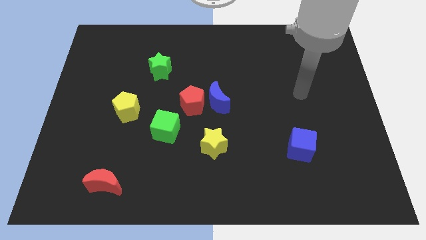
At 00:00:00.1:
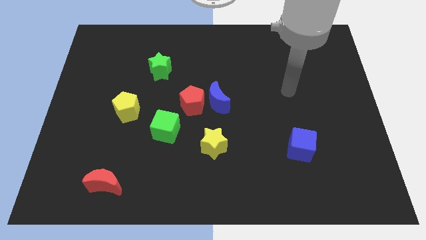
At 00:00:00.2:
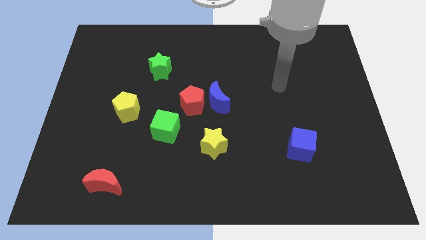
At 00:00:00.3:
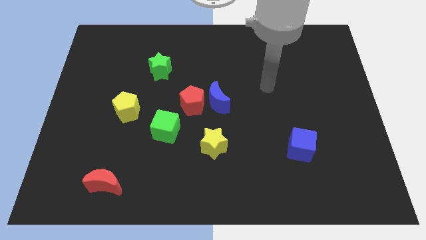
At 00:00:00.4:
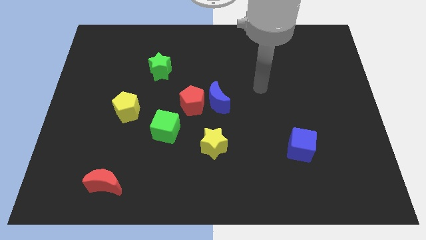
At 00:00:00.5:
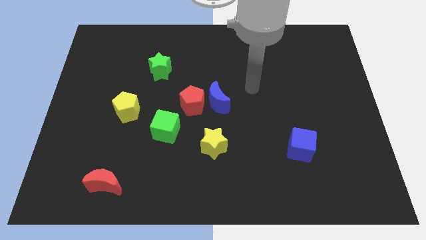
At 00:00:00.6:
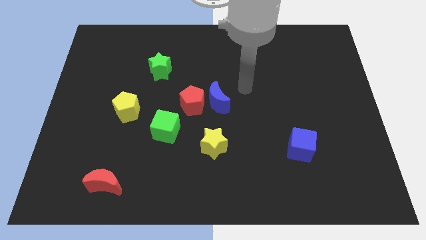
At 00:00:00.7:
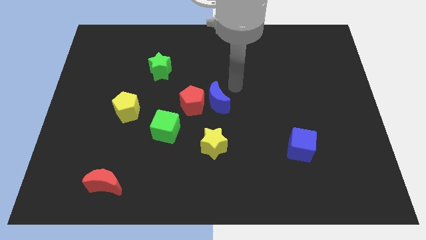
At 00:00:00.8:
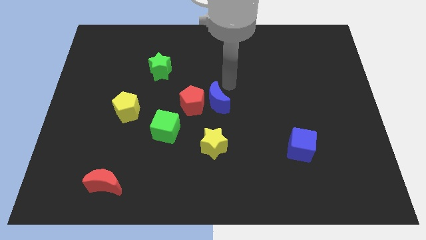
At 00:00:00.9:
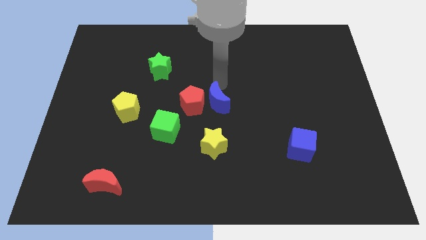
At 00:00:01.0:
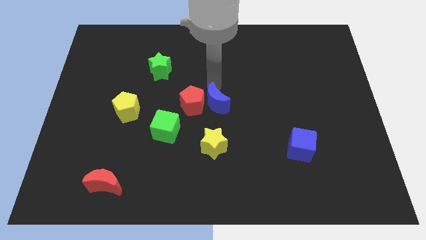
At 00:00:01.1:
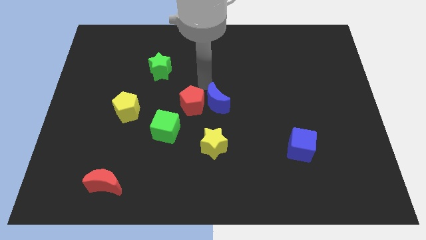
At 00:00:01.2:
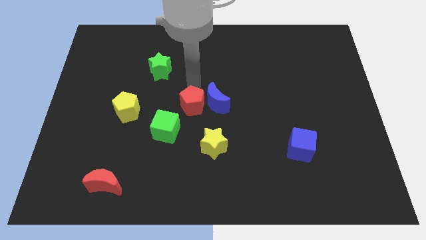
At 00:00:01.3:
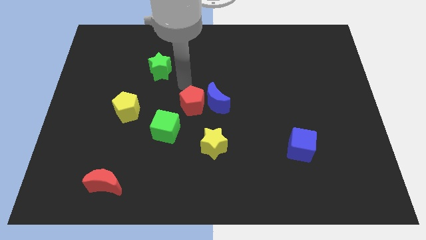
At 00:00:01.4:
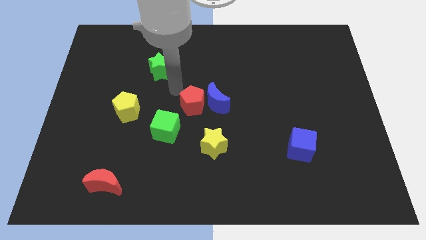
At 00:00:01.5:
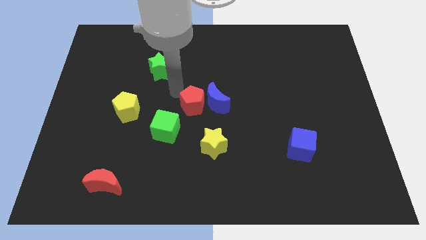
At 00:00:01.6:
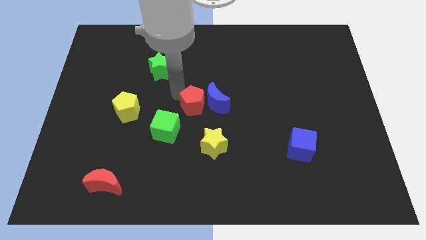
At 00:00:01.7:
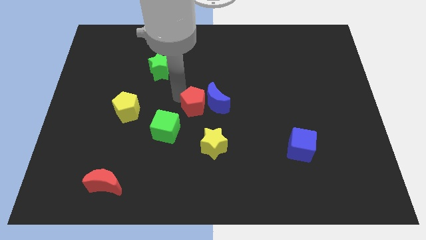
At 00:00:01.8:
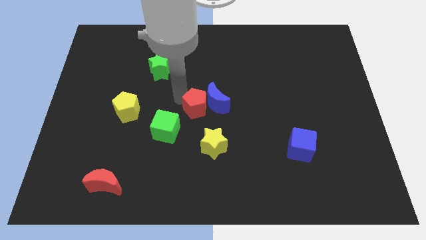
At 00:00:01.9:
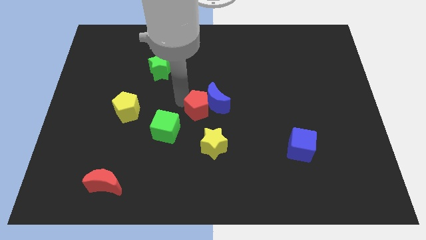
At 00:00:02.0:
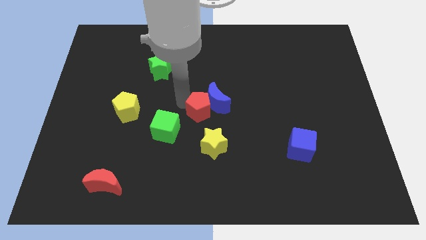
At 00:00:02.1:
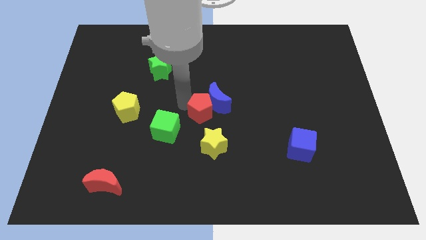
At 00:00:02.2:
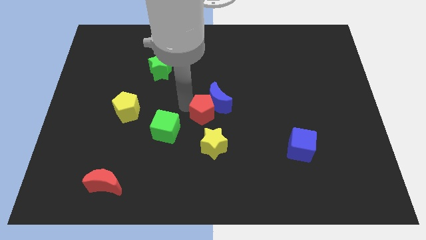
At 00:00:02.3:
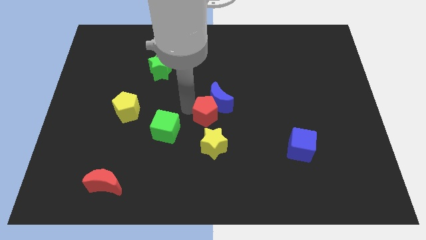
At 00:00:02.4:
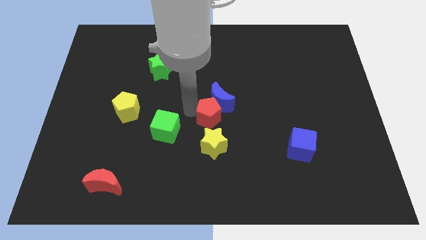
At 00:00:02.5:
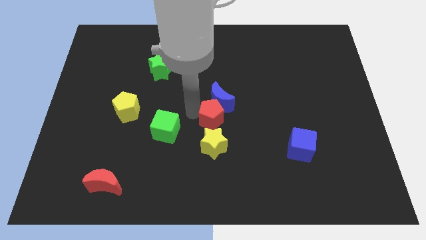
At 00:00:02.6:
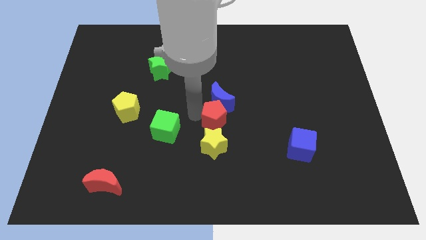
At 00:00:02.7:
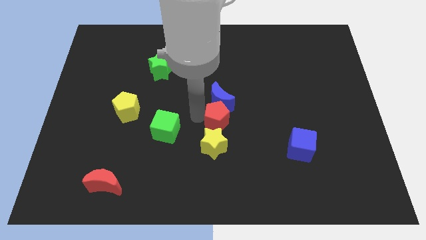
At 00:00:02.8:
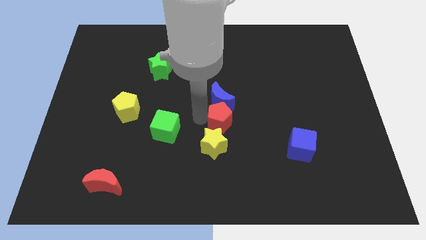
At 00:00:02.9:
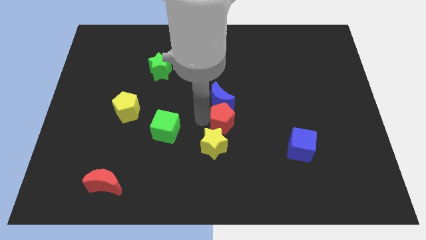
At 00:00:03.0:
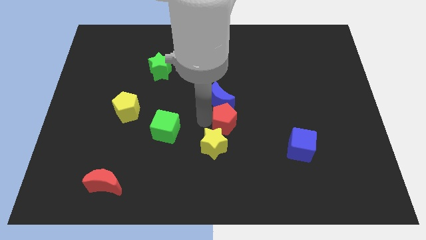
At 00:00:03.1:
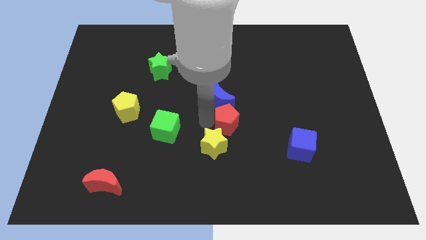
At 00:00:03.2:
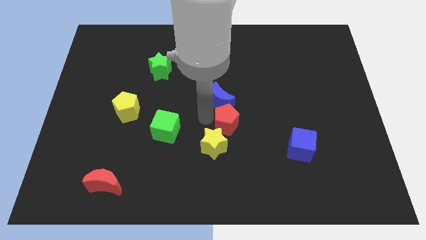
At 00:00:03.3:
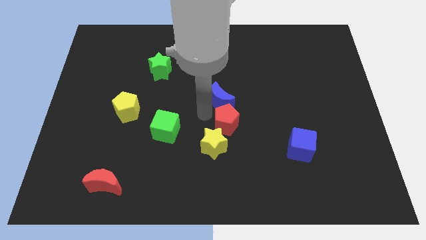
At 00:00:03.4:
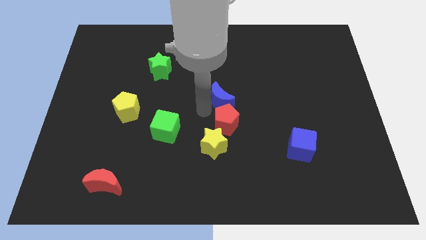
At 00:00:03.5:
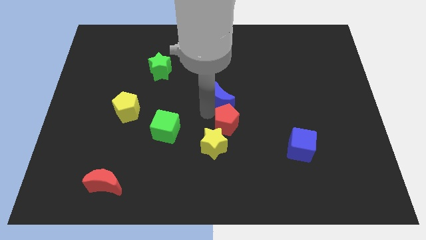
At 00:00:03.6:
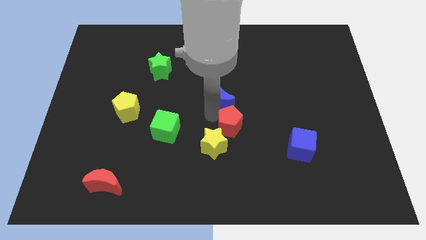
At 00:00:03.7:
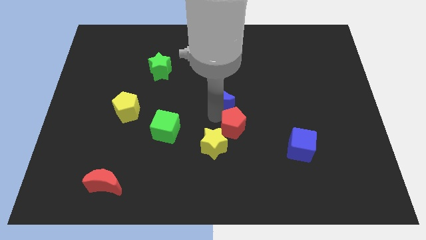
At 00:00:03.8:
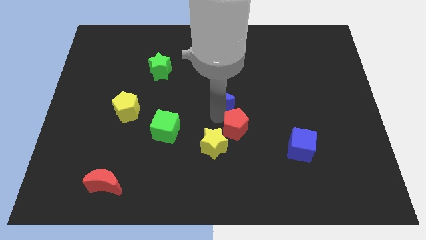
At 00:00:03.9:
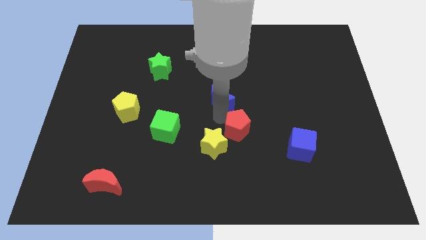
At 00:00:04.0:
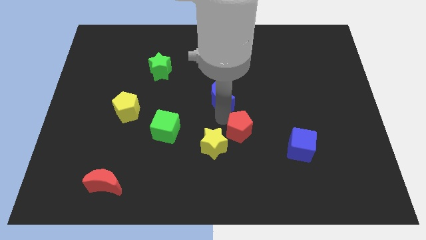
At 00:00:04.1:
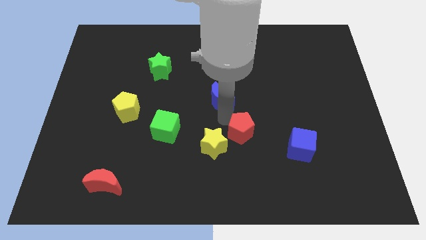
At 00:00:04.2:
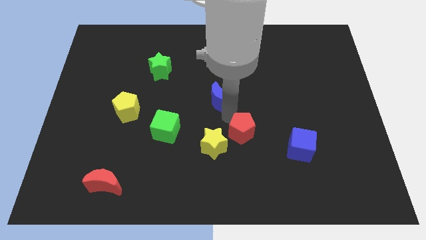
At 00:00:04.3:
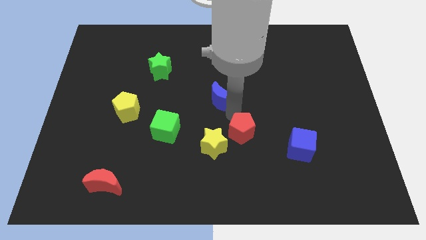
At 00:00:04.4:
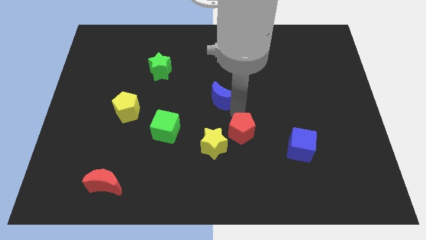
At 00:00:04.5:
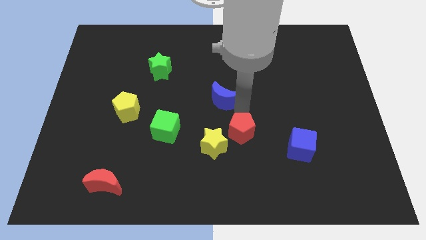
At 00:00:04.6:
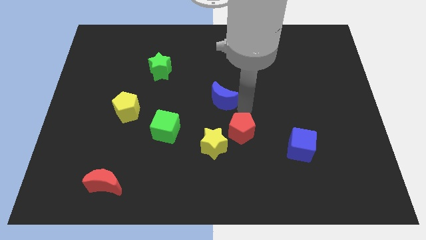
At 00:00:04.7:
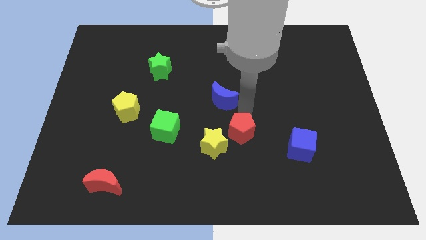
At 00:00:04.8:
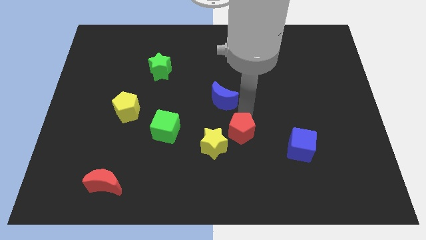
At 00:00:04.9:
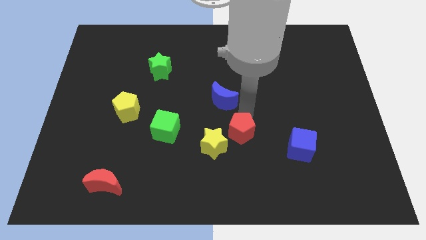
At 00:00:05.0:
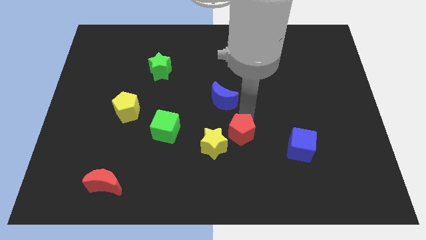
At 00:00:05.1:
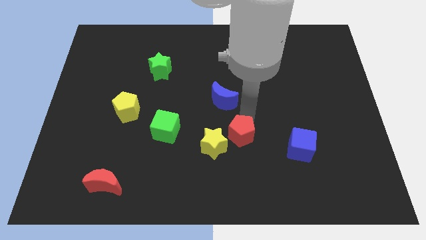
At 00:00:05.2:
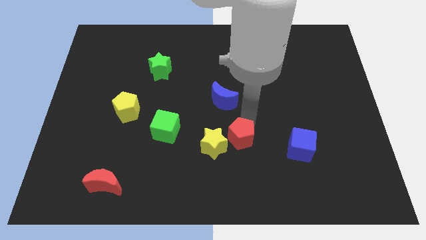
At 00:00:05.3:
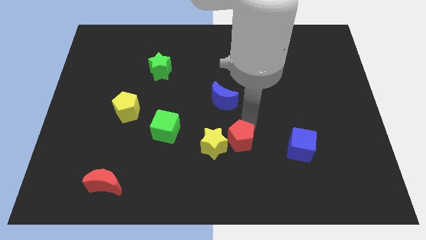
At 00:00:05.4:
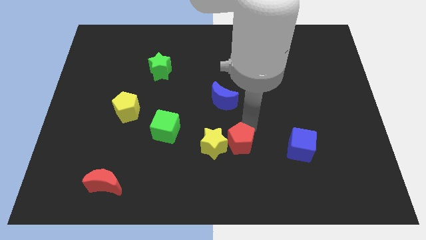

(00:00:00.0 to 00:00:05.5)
push the red pentagon to the bottom right side of the yellow star

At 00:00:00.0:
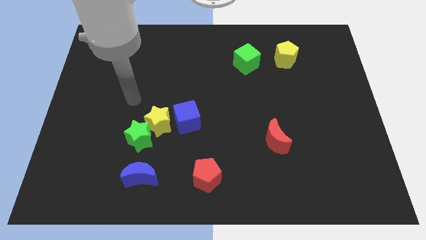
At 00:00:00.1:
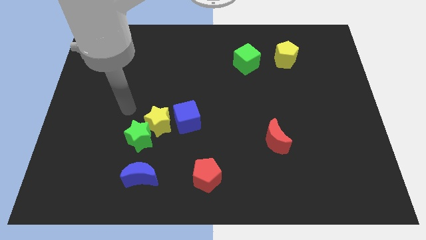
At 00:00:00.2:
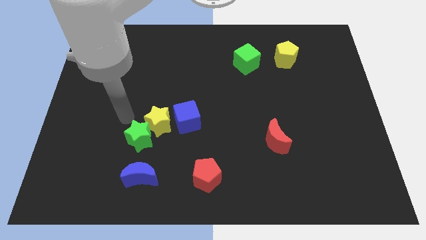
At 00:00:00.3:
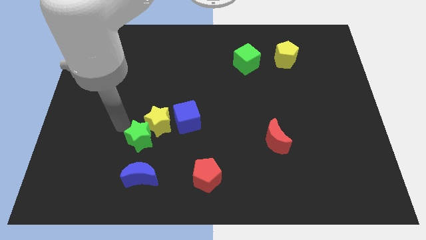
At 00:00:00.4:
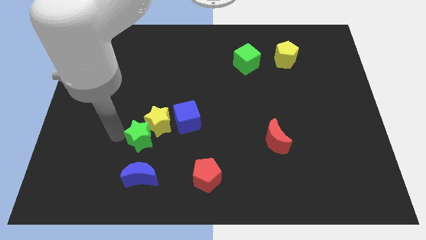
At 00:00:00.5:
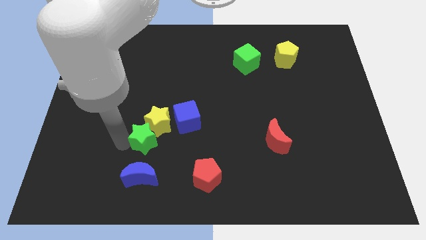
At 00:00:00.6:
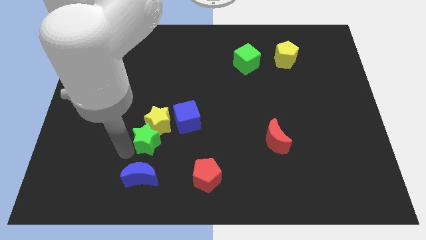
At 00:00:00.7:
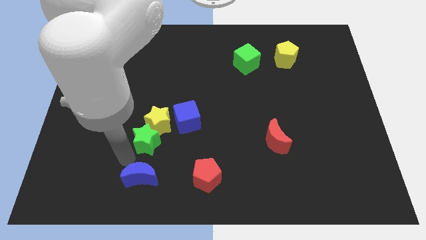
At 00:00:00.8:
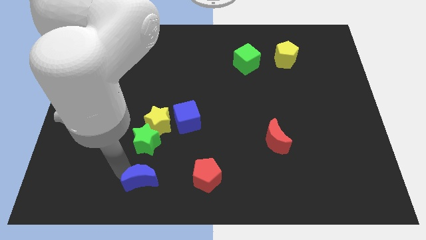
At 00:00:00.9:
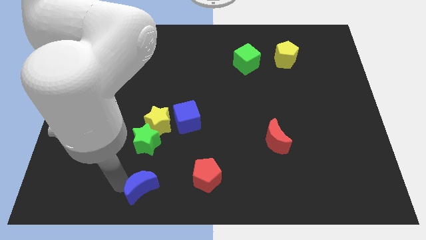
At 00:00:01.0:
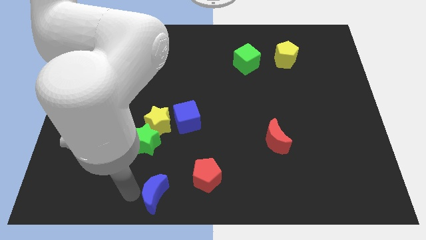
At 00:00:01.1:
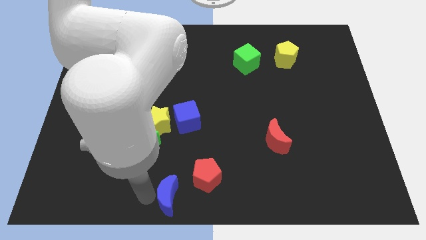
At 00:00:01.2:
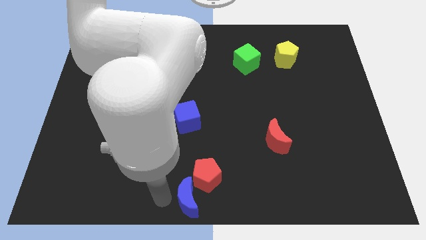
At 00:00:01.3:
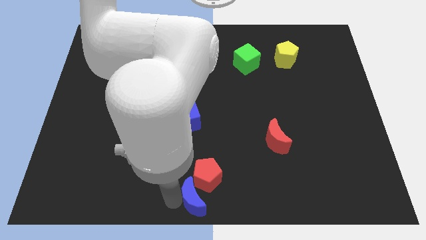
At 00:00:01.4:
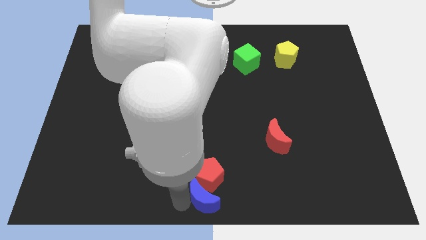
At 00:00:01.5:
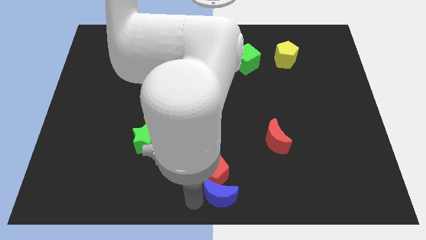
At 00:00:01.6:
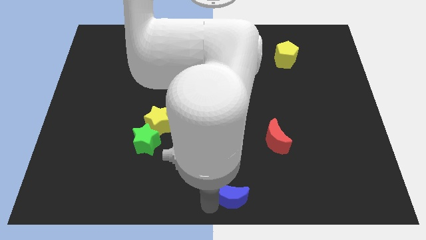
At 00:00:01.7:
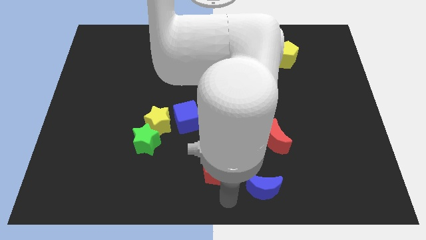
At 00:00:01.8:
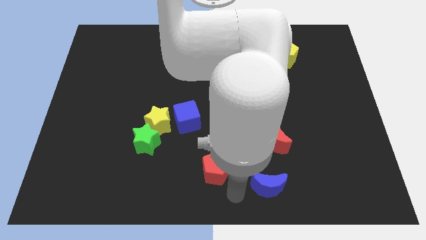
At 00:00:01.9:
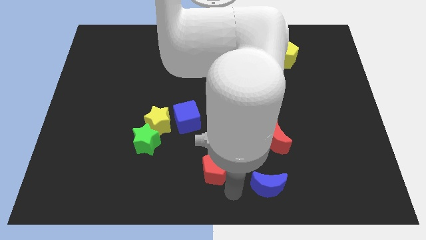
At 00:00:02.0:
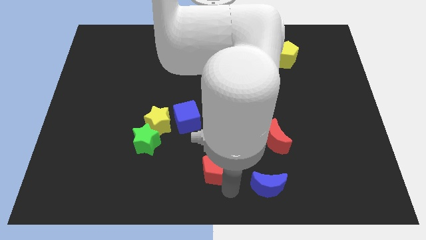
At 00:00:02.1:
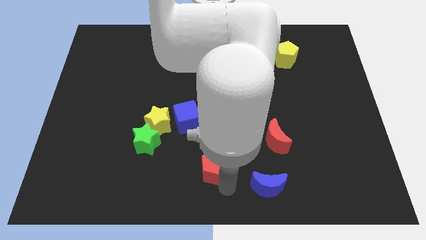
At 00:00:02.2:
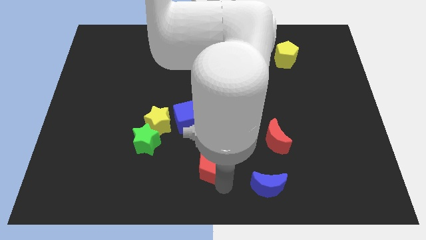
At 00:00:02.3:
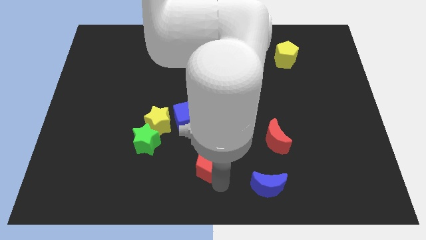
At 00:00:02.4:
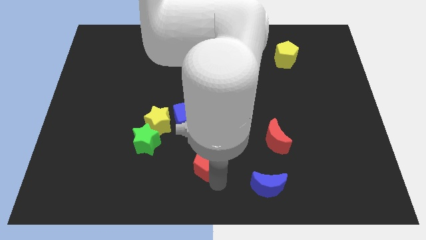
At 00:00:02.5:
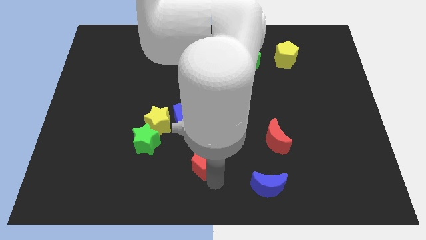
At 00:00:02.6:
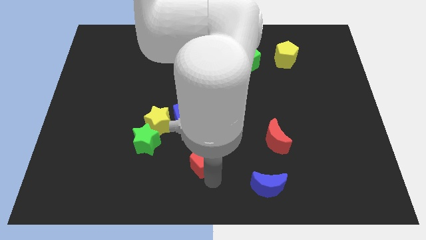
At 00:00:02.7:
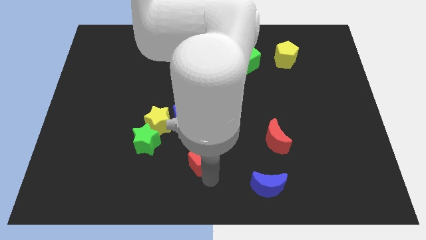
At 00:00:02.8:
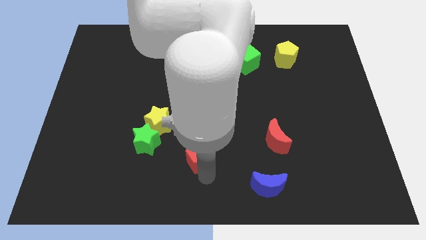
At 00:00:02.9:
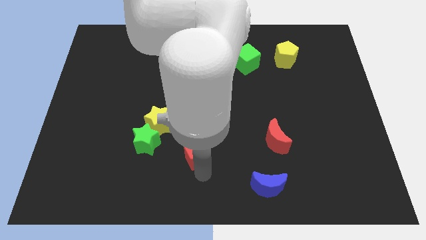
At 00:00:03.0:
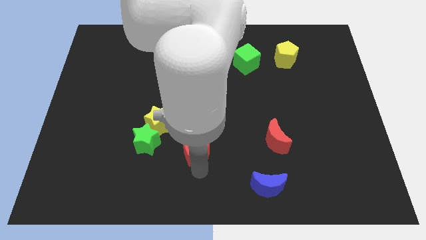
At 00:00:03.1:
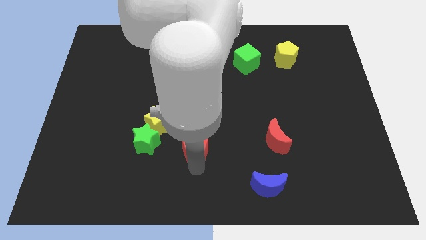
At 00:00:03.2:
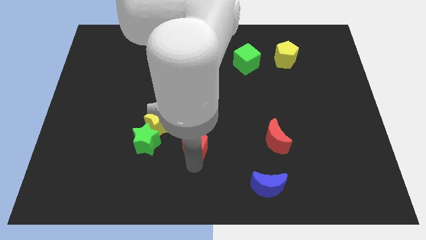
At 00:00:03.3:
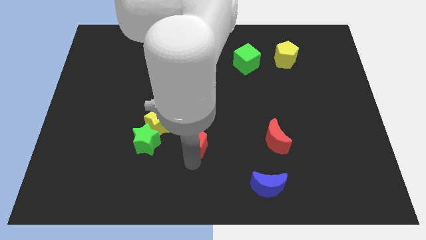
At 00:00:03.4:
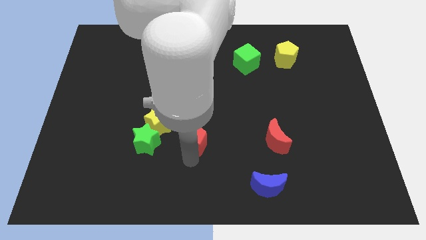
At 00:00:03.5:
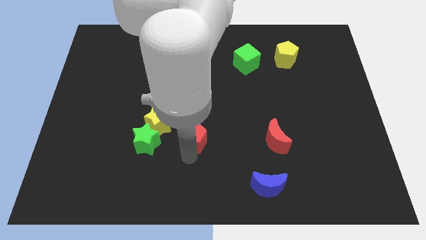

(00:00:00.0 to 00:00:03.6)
push the red pentagon just right of the yellow star
